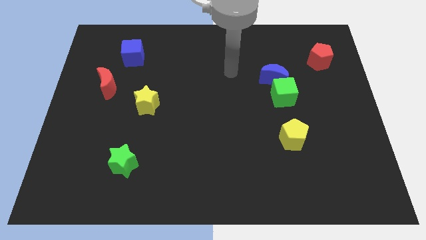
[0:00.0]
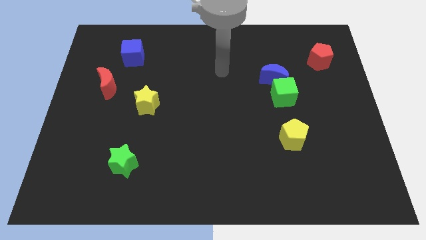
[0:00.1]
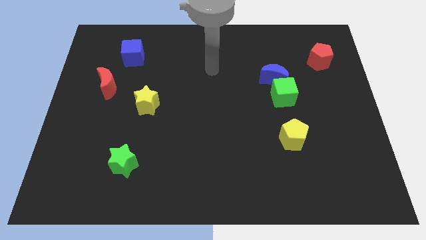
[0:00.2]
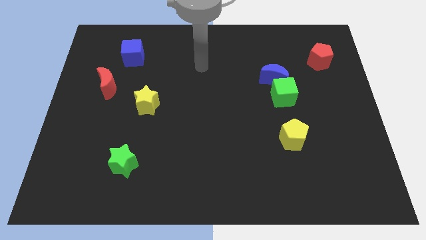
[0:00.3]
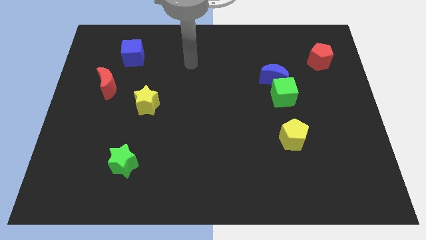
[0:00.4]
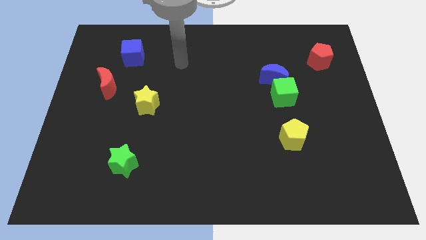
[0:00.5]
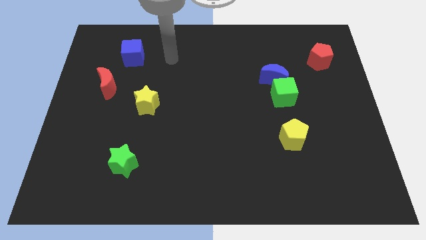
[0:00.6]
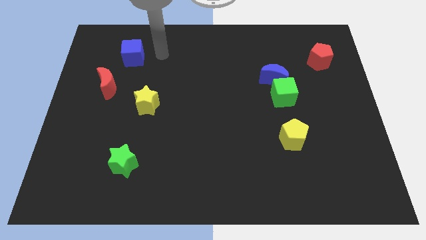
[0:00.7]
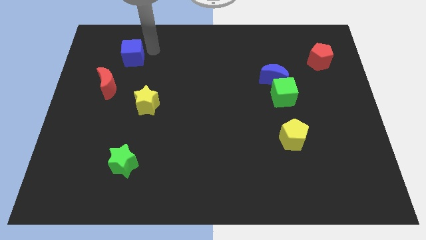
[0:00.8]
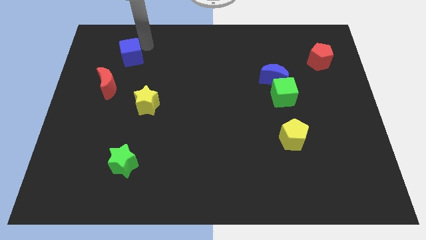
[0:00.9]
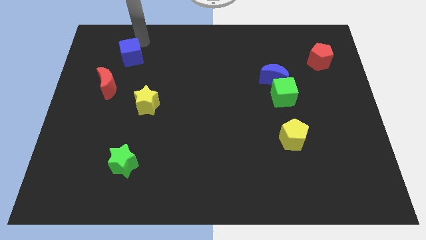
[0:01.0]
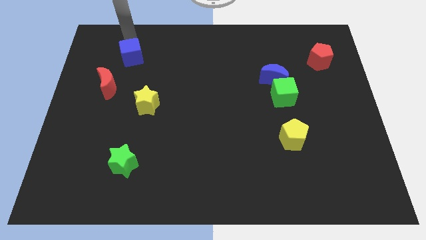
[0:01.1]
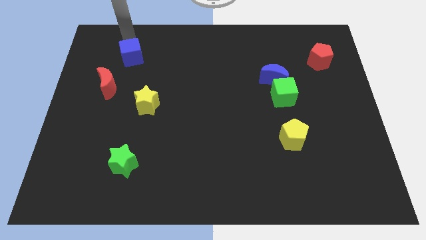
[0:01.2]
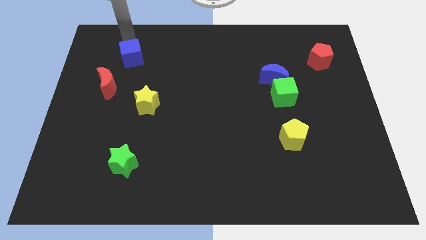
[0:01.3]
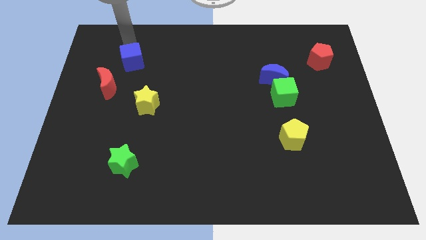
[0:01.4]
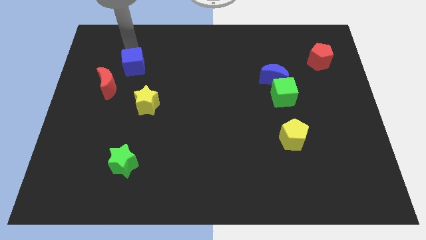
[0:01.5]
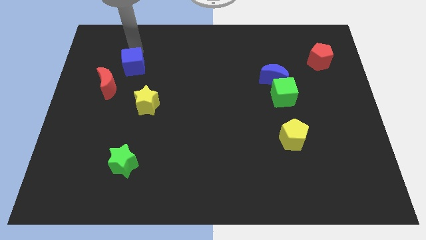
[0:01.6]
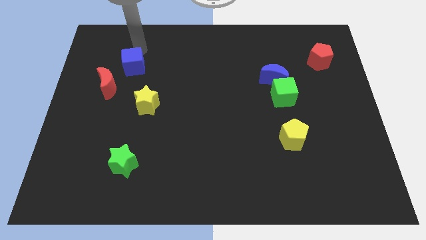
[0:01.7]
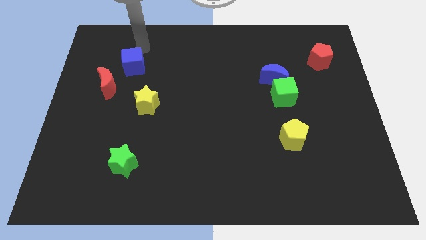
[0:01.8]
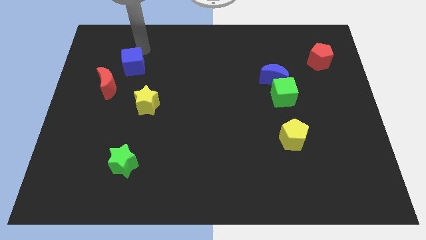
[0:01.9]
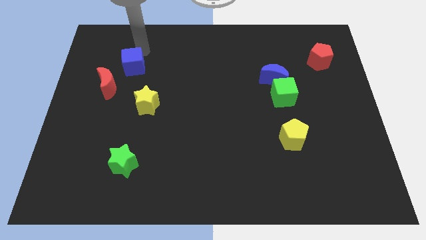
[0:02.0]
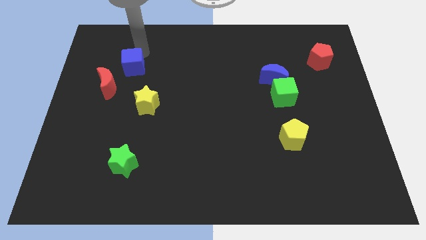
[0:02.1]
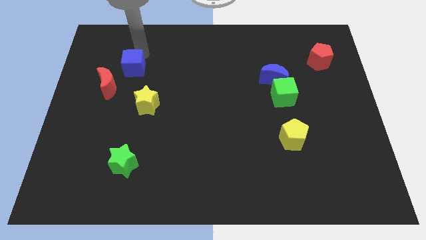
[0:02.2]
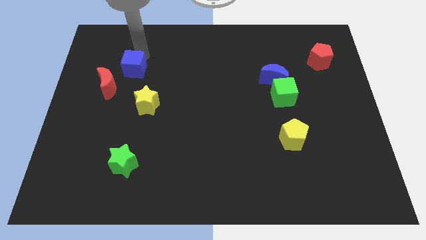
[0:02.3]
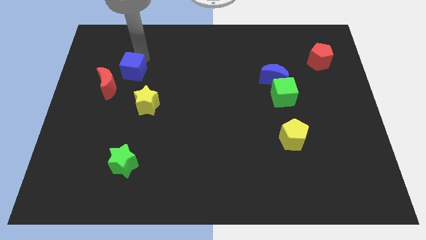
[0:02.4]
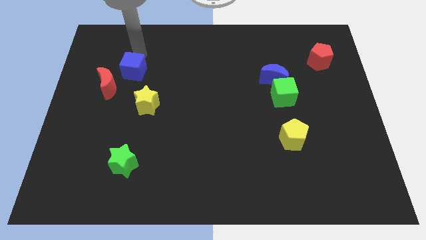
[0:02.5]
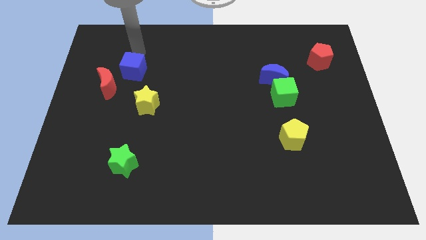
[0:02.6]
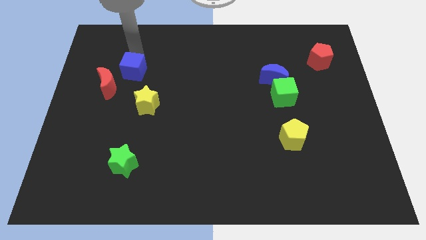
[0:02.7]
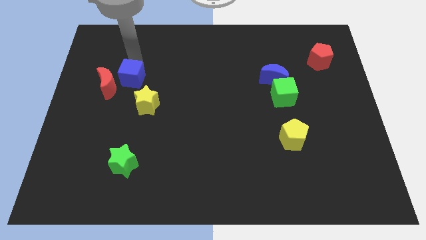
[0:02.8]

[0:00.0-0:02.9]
slightly push the blue cube down

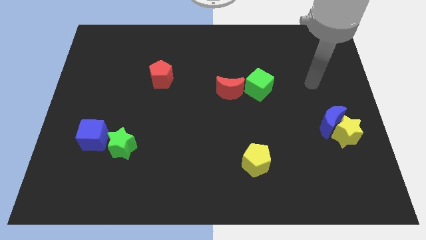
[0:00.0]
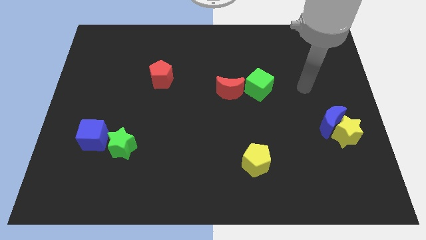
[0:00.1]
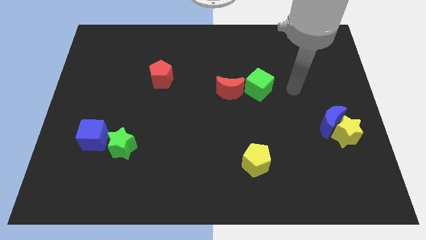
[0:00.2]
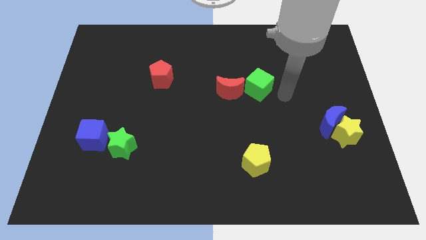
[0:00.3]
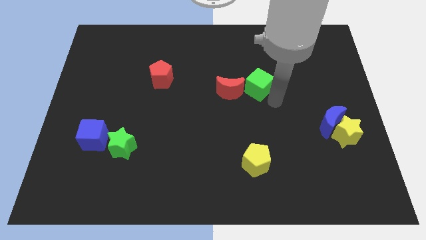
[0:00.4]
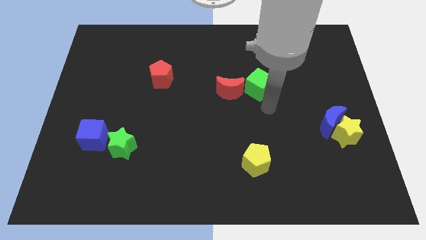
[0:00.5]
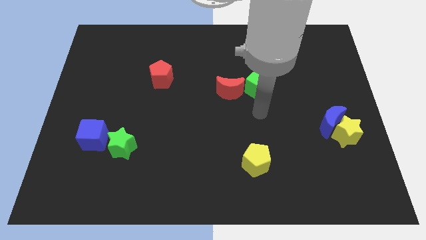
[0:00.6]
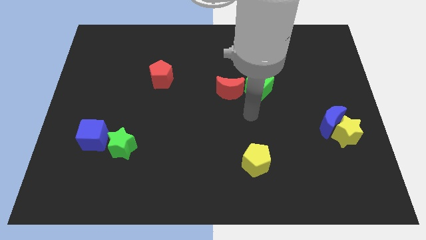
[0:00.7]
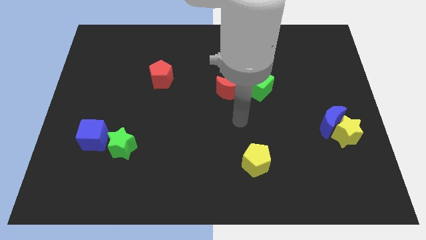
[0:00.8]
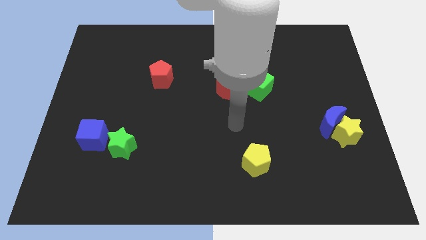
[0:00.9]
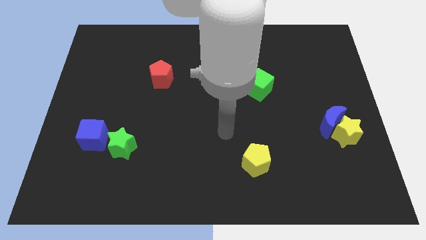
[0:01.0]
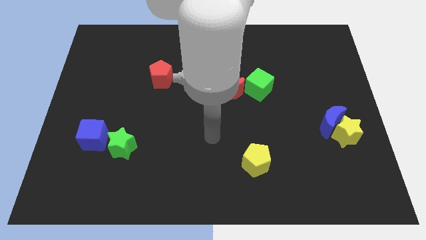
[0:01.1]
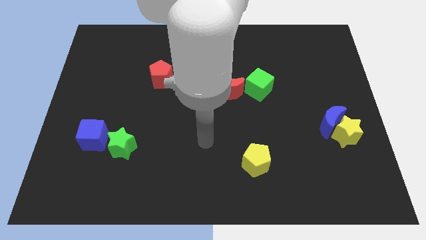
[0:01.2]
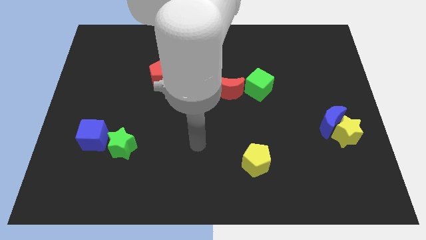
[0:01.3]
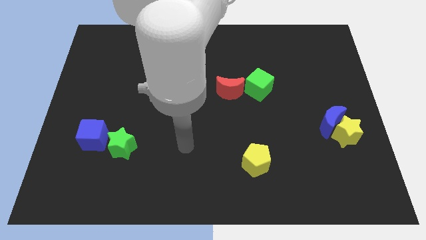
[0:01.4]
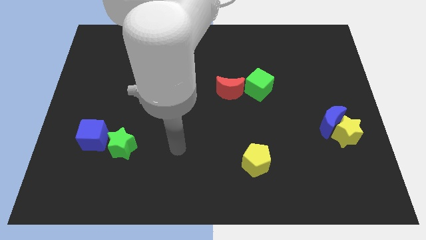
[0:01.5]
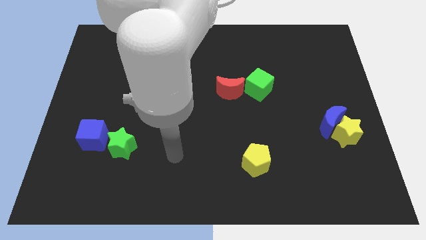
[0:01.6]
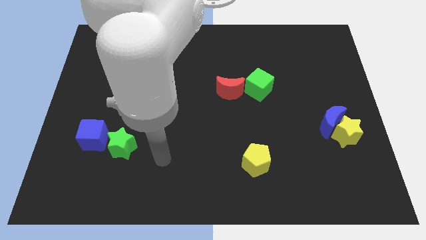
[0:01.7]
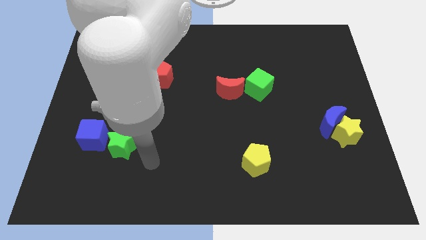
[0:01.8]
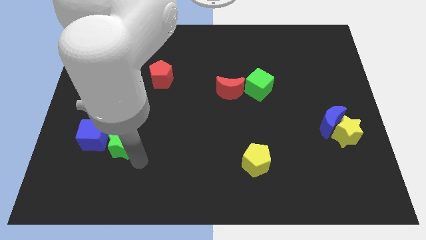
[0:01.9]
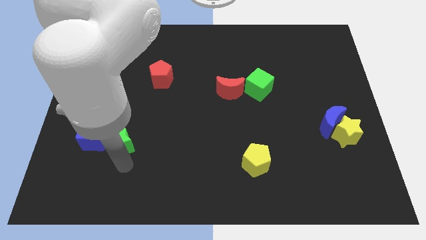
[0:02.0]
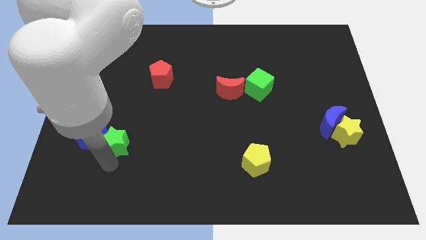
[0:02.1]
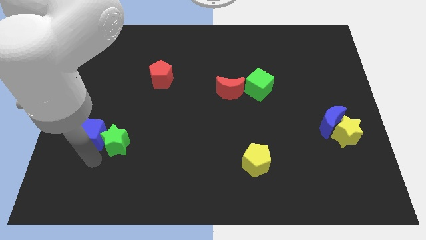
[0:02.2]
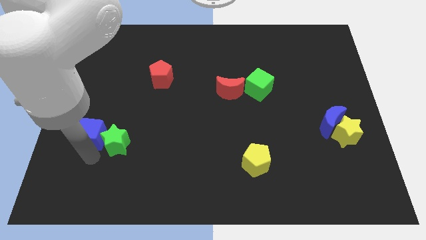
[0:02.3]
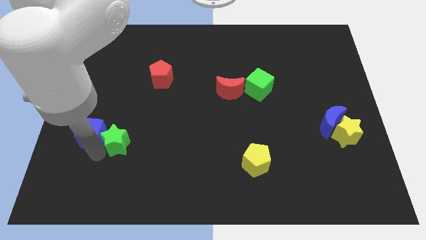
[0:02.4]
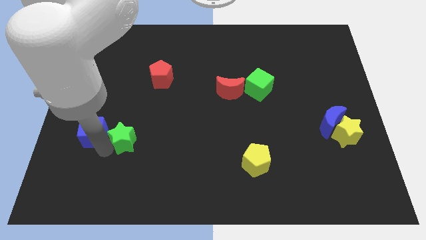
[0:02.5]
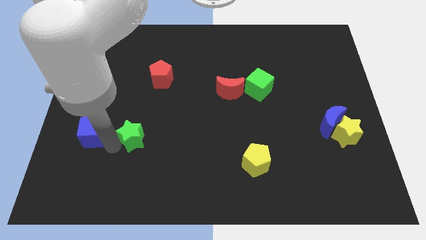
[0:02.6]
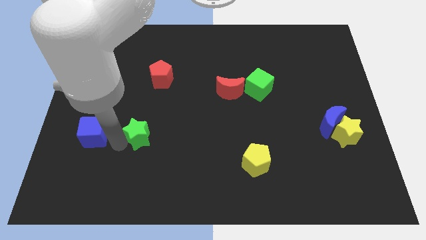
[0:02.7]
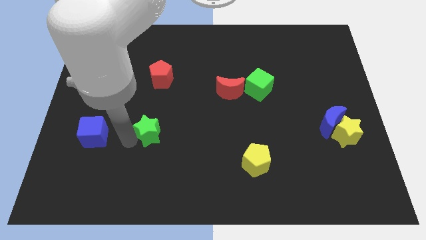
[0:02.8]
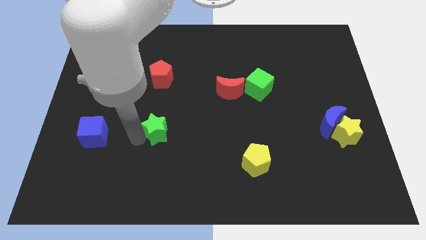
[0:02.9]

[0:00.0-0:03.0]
move the green star slightly up and then to the right

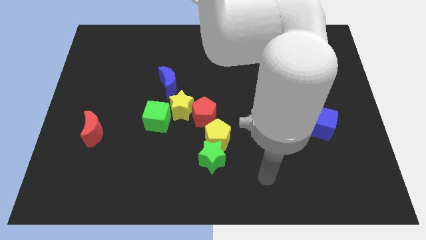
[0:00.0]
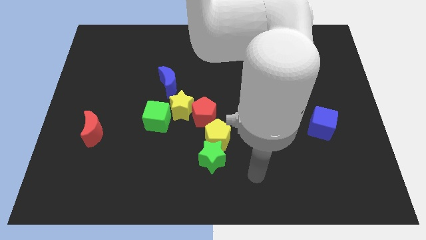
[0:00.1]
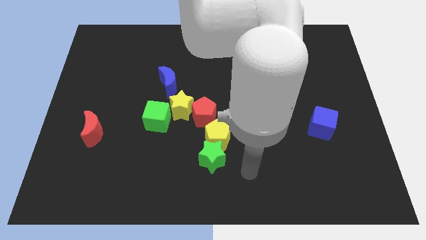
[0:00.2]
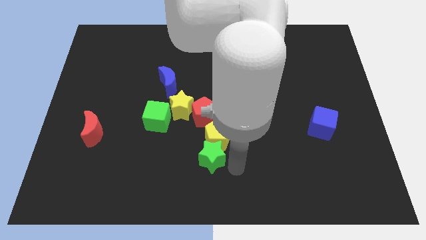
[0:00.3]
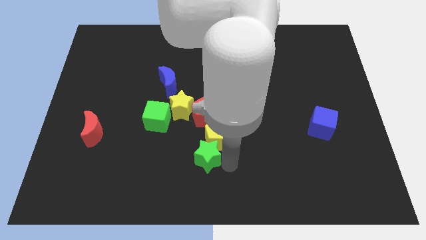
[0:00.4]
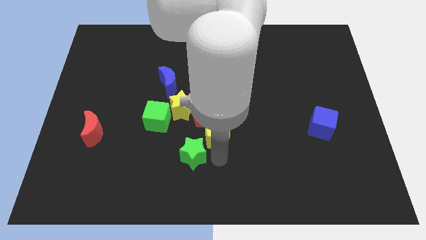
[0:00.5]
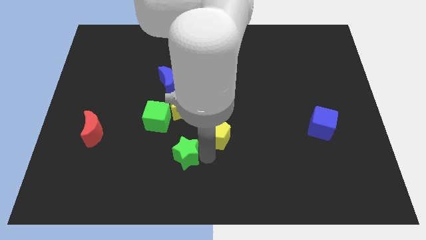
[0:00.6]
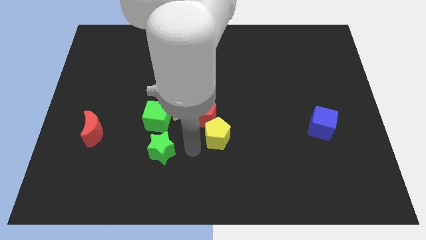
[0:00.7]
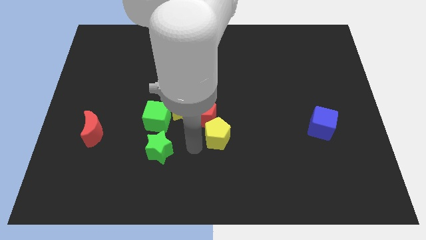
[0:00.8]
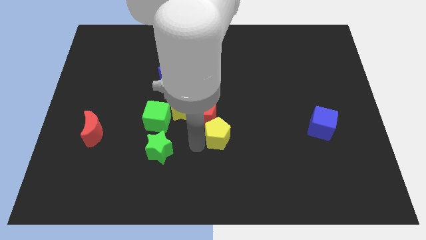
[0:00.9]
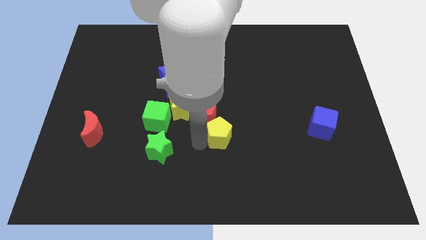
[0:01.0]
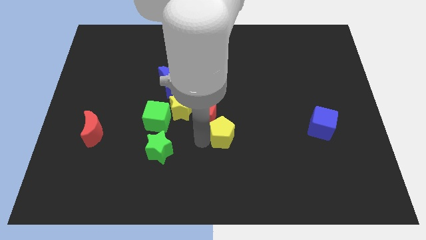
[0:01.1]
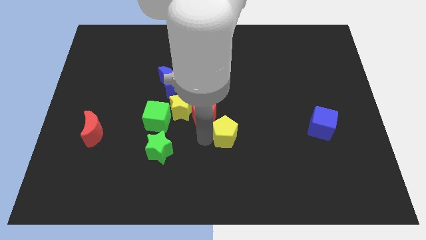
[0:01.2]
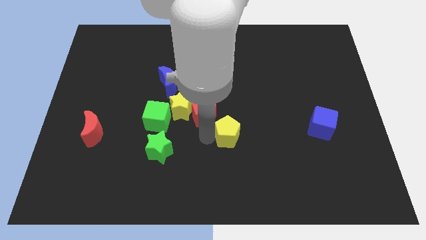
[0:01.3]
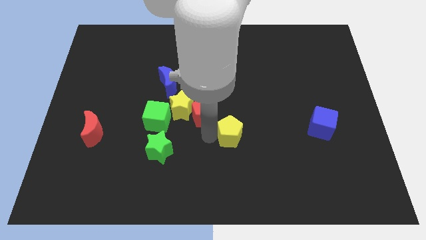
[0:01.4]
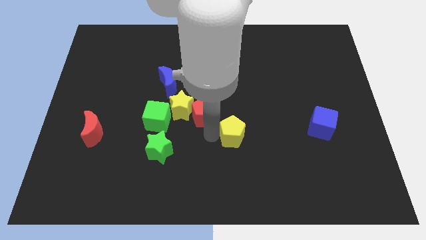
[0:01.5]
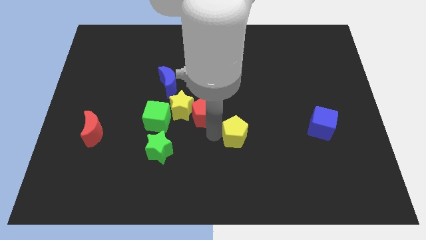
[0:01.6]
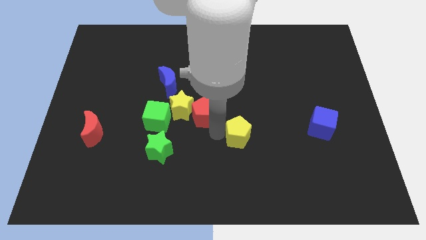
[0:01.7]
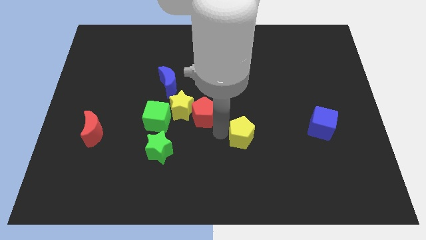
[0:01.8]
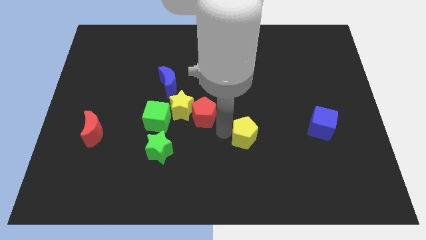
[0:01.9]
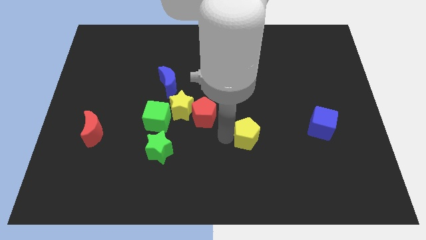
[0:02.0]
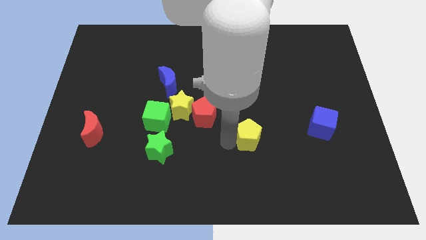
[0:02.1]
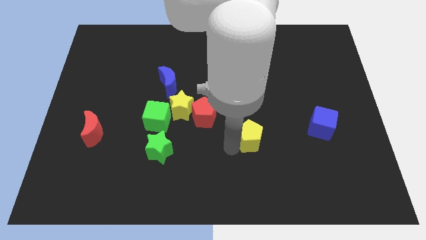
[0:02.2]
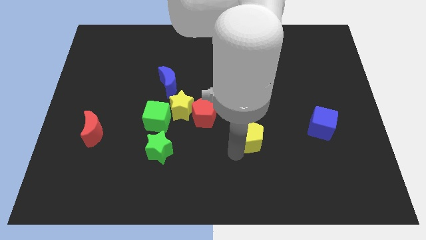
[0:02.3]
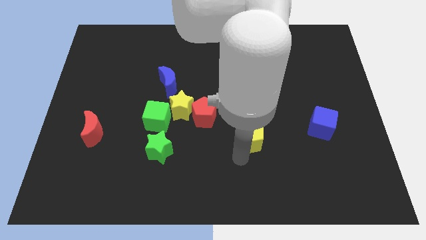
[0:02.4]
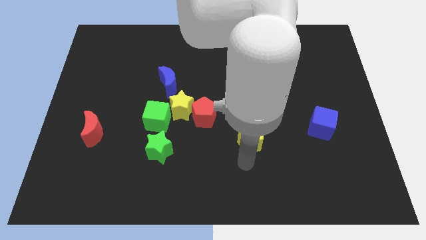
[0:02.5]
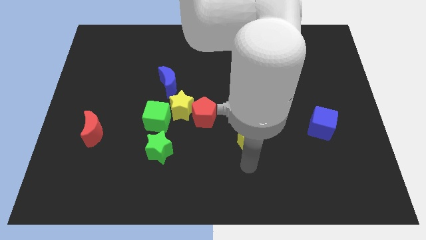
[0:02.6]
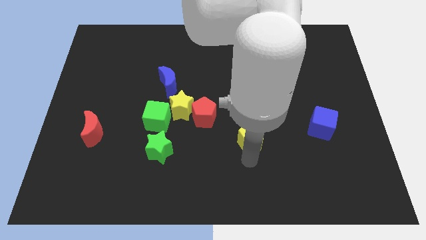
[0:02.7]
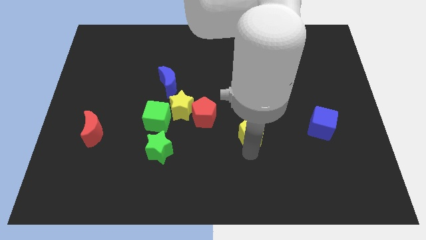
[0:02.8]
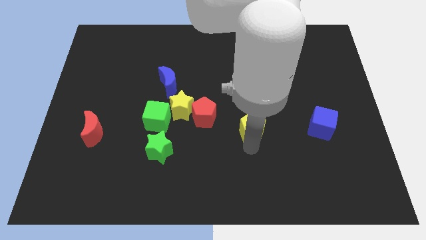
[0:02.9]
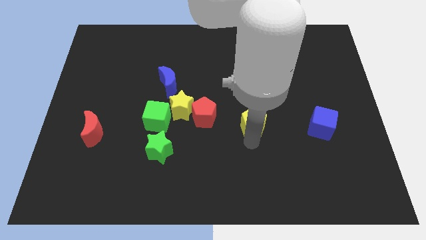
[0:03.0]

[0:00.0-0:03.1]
slightly move the yellow pentagon upwards and then right
